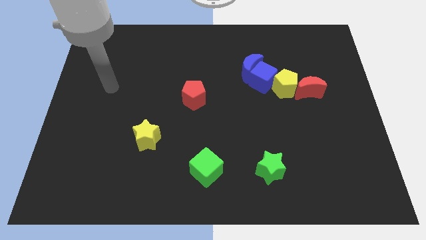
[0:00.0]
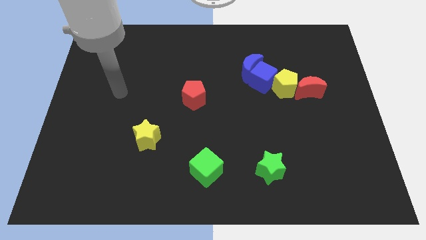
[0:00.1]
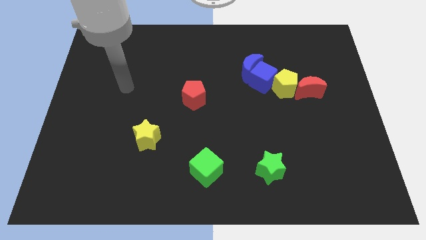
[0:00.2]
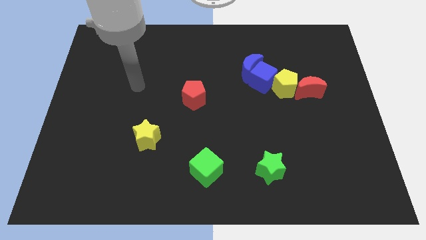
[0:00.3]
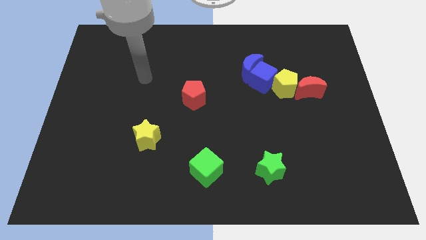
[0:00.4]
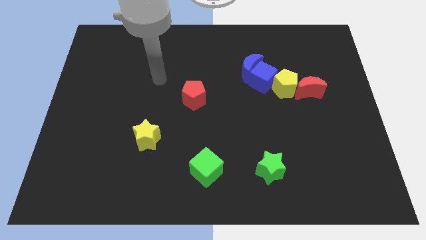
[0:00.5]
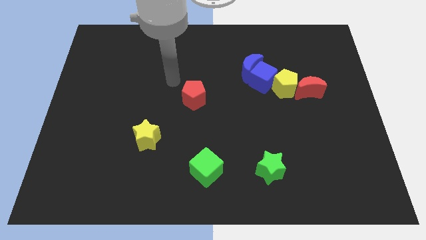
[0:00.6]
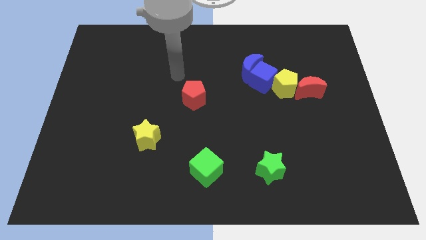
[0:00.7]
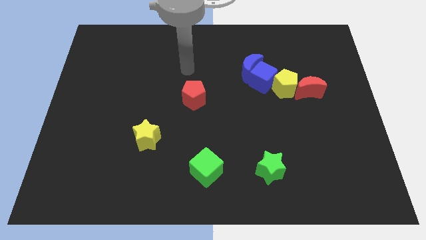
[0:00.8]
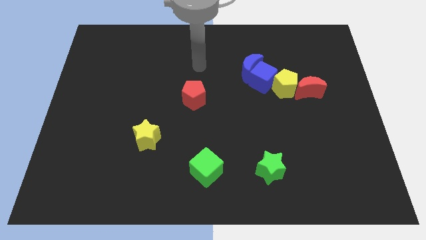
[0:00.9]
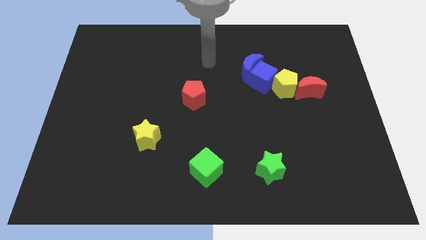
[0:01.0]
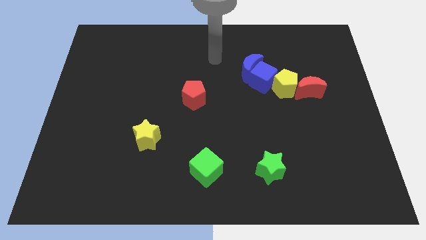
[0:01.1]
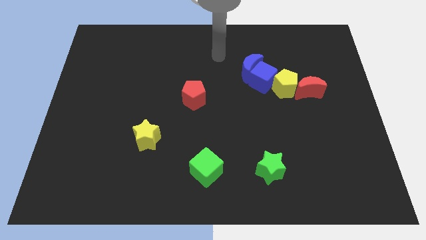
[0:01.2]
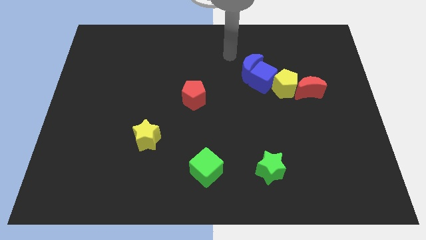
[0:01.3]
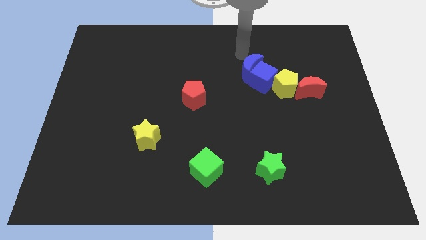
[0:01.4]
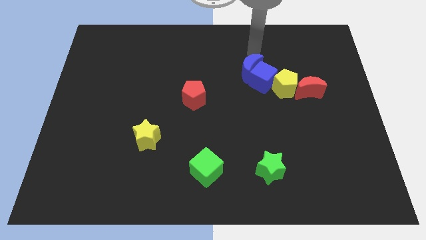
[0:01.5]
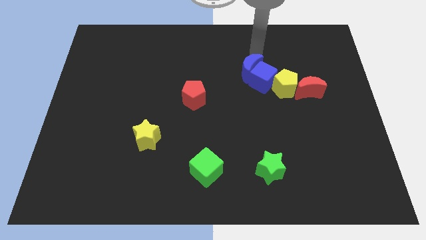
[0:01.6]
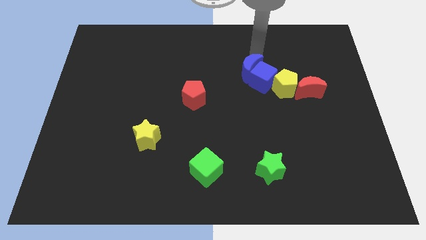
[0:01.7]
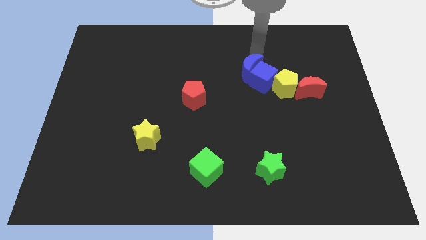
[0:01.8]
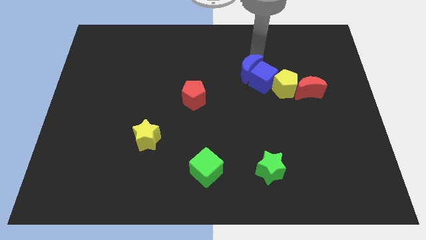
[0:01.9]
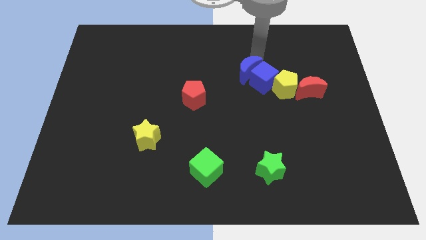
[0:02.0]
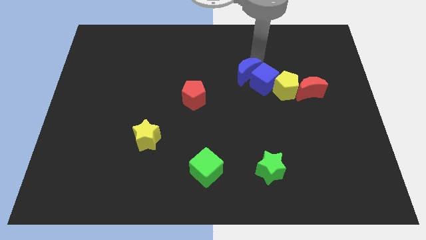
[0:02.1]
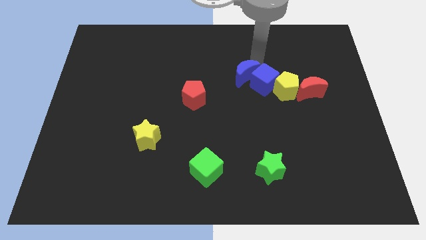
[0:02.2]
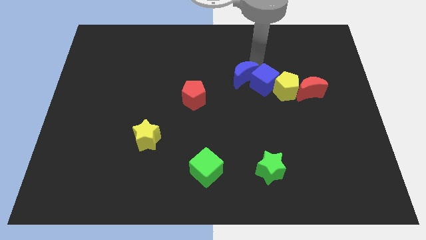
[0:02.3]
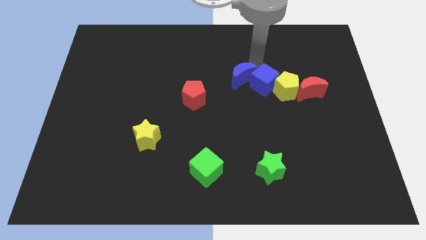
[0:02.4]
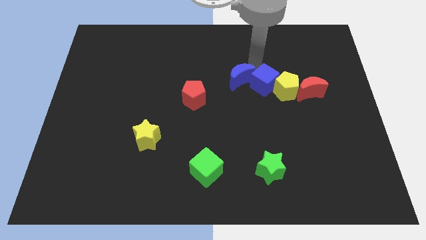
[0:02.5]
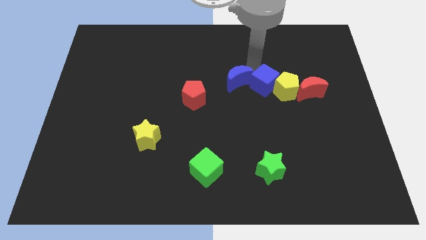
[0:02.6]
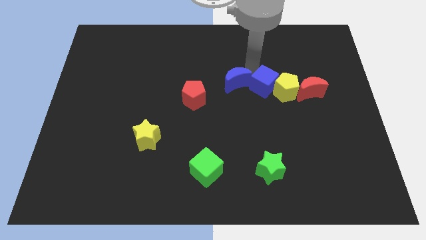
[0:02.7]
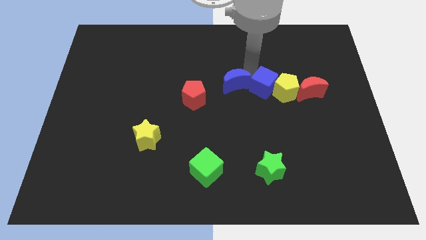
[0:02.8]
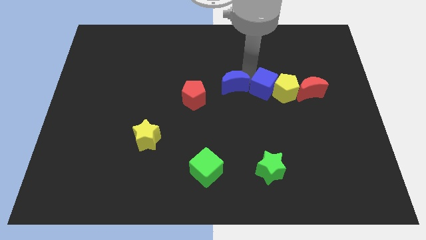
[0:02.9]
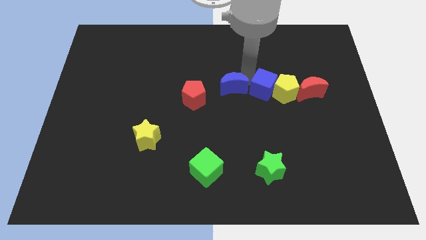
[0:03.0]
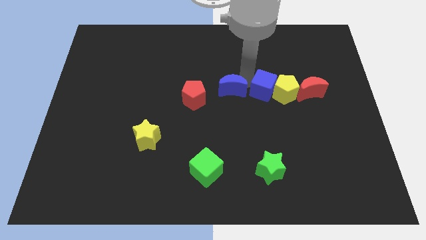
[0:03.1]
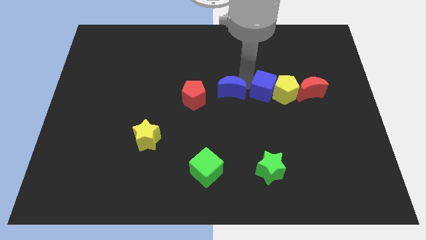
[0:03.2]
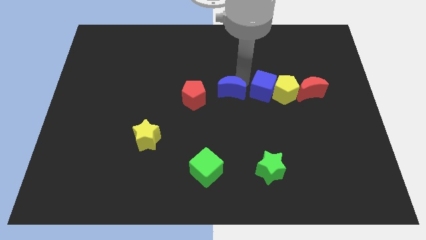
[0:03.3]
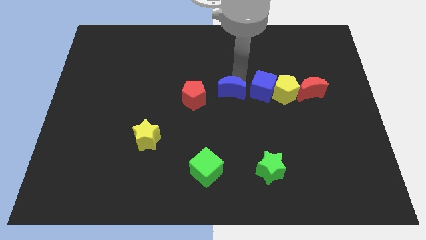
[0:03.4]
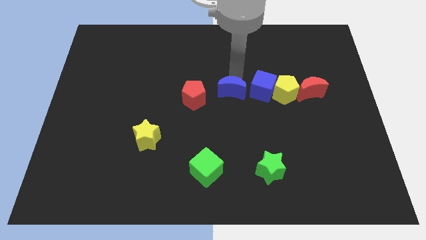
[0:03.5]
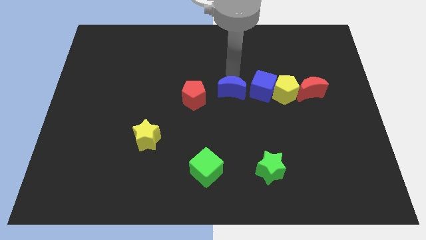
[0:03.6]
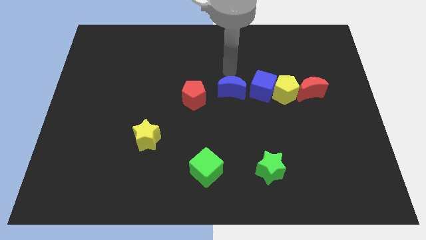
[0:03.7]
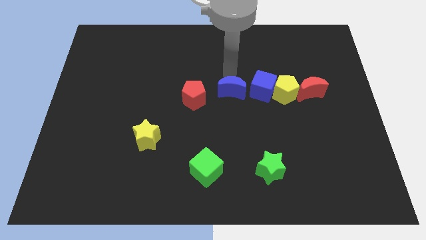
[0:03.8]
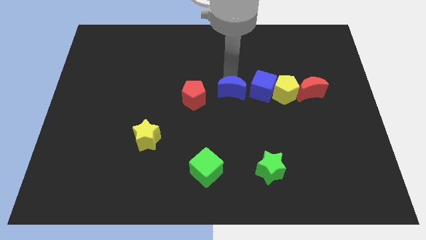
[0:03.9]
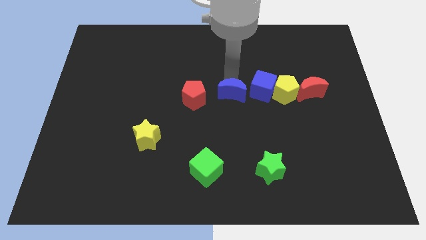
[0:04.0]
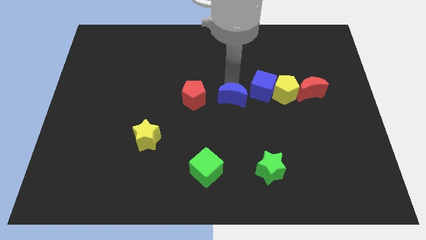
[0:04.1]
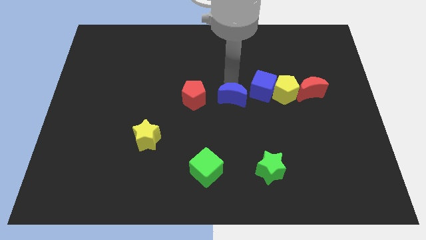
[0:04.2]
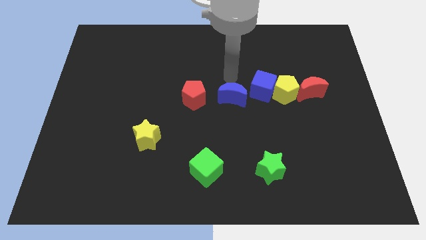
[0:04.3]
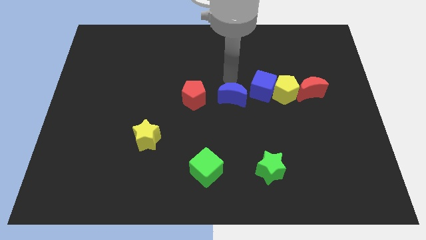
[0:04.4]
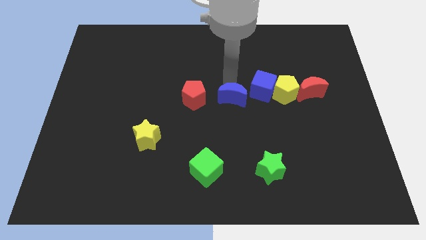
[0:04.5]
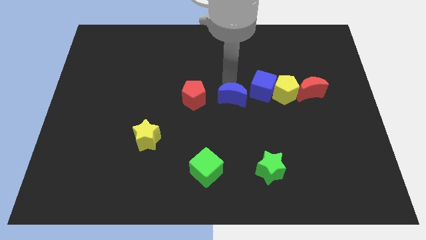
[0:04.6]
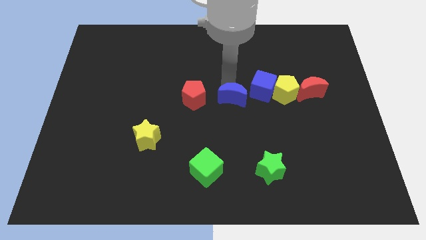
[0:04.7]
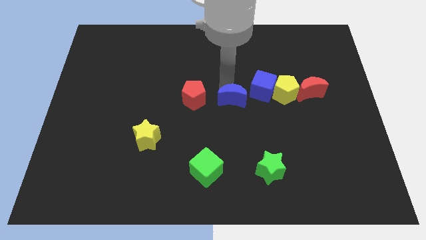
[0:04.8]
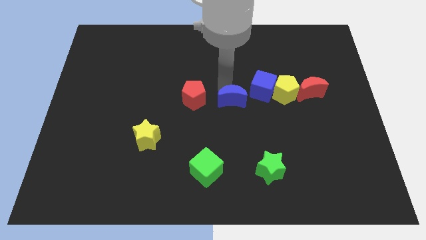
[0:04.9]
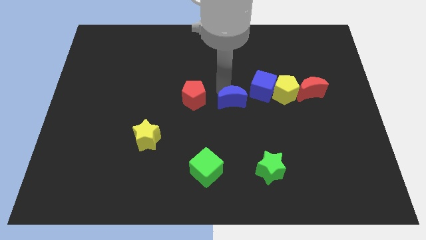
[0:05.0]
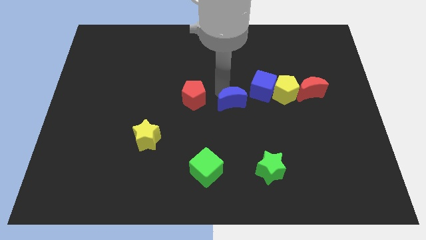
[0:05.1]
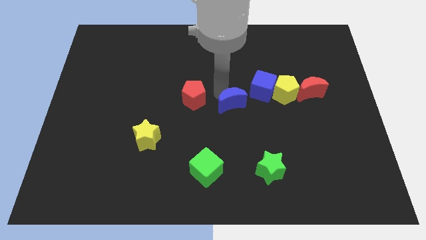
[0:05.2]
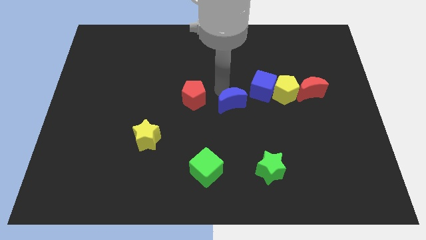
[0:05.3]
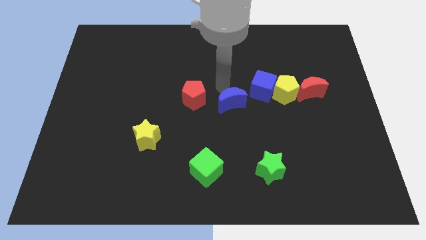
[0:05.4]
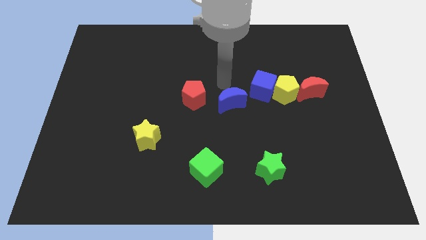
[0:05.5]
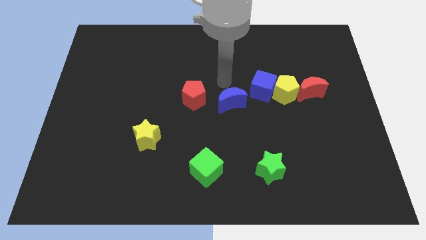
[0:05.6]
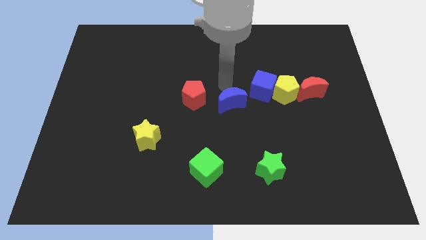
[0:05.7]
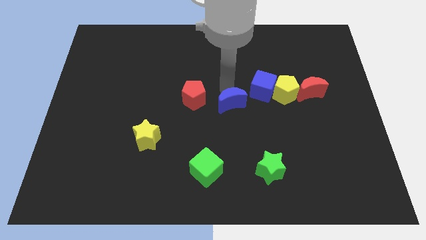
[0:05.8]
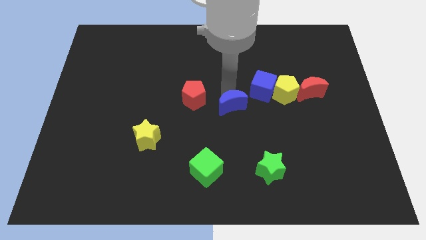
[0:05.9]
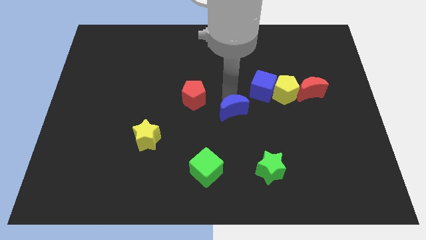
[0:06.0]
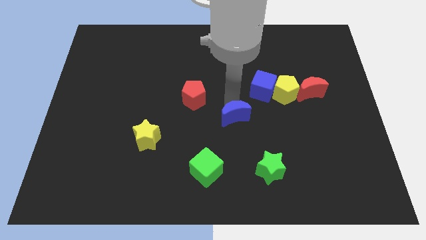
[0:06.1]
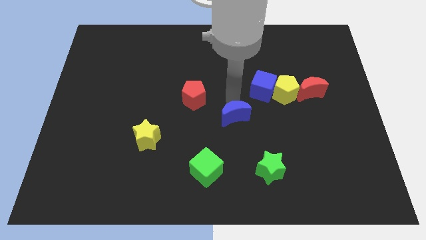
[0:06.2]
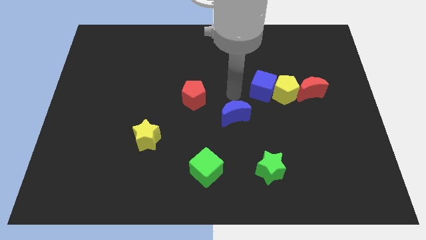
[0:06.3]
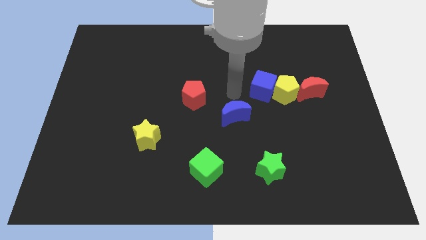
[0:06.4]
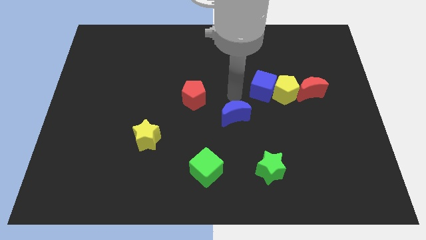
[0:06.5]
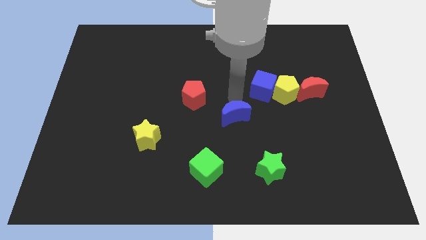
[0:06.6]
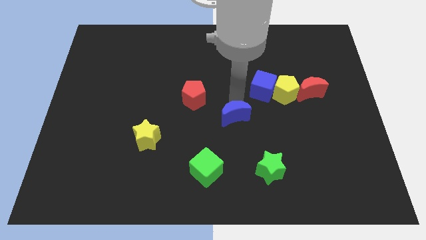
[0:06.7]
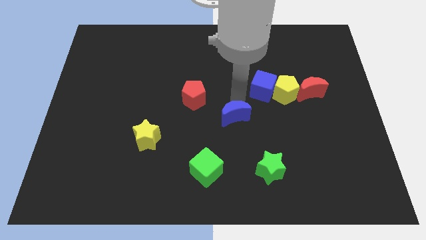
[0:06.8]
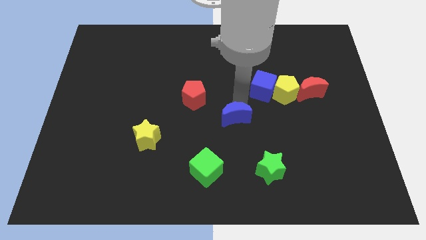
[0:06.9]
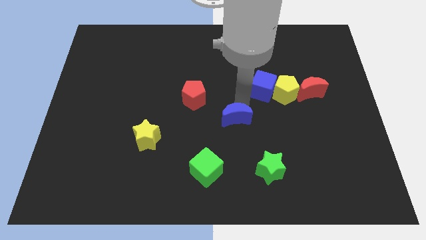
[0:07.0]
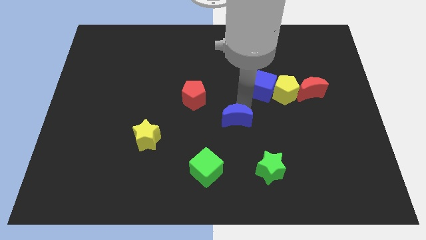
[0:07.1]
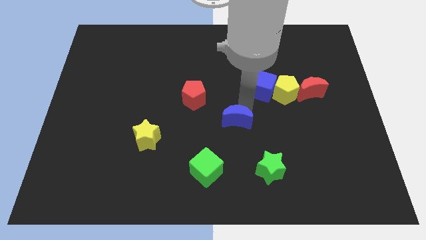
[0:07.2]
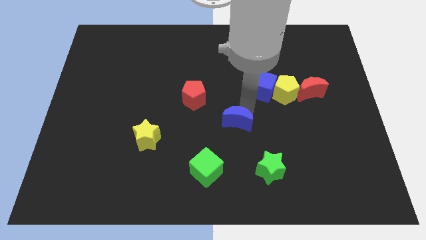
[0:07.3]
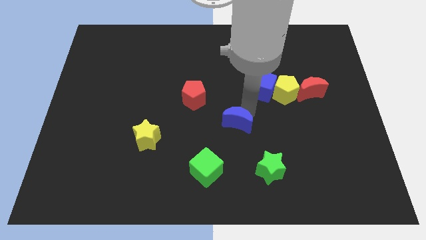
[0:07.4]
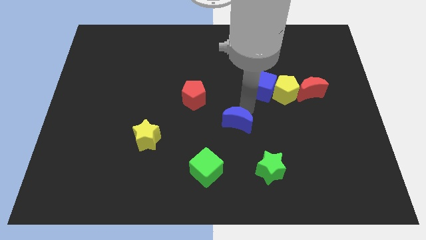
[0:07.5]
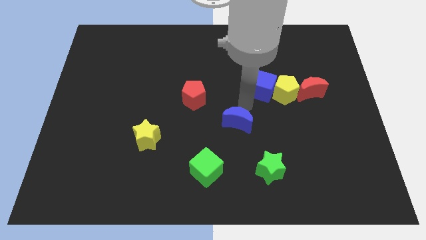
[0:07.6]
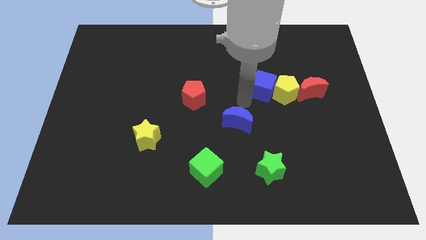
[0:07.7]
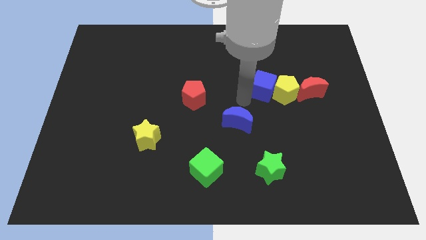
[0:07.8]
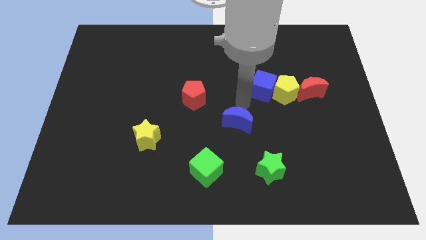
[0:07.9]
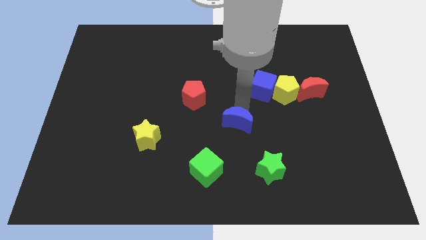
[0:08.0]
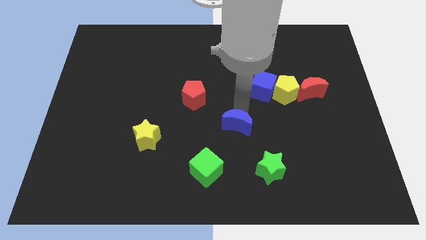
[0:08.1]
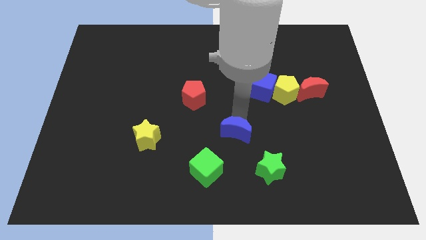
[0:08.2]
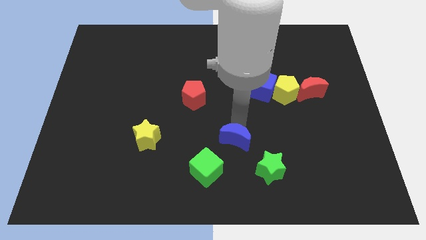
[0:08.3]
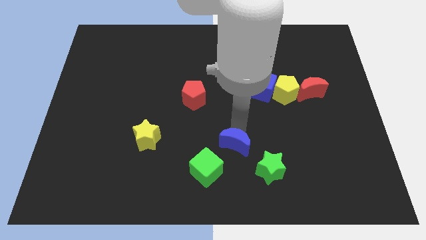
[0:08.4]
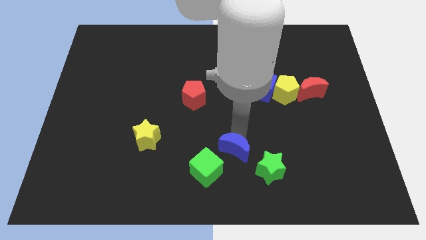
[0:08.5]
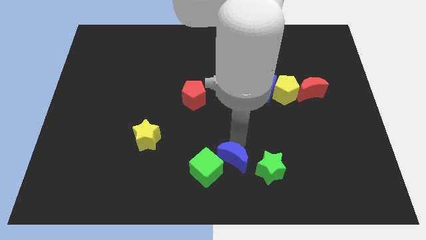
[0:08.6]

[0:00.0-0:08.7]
slide the blue moon to the bottom side
